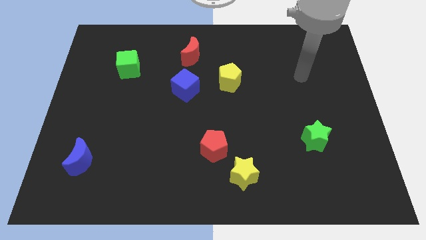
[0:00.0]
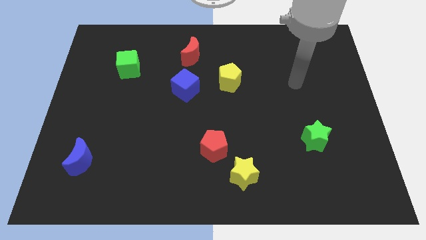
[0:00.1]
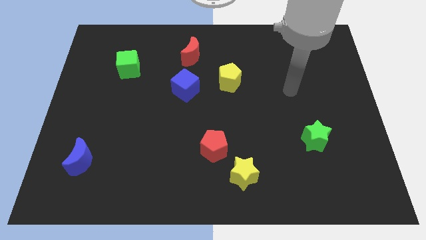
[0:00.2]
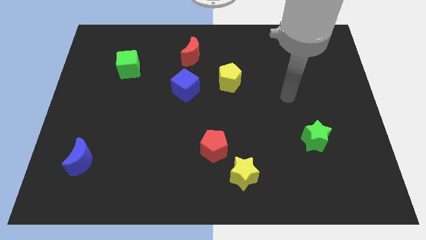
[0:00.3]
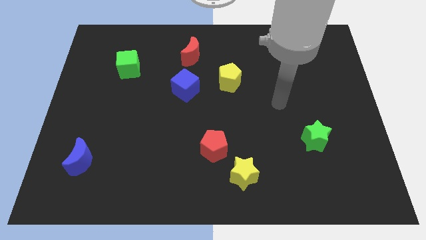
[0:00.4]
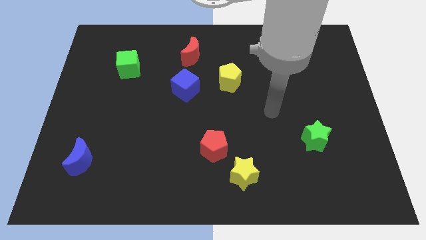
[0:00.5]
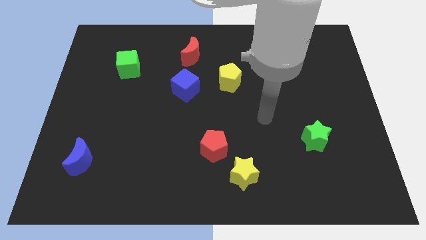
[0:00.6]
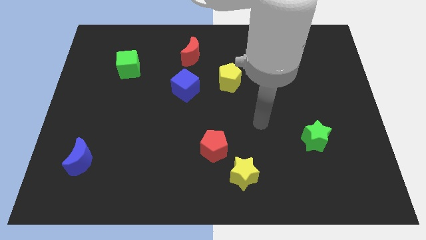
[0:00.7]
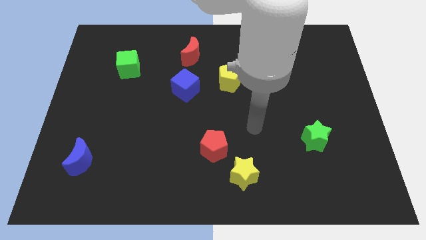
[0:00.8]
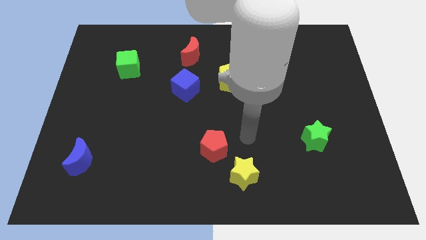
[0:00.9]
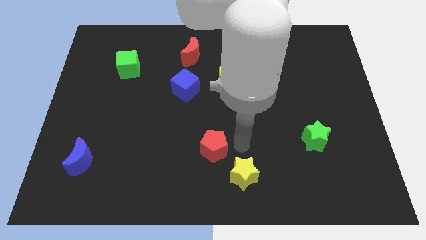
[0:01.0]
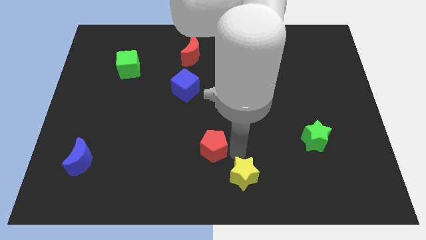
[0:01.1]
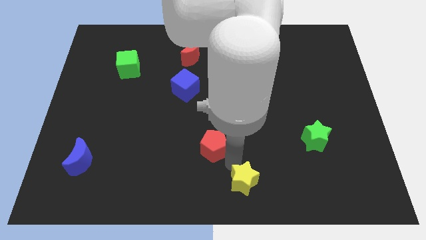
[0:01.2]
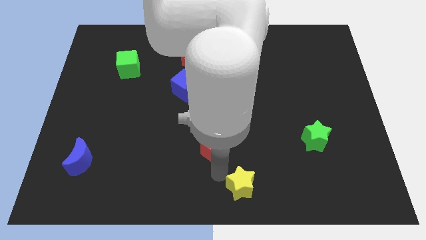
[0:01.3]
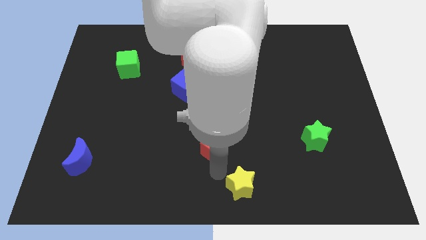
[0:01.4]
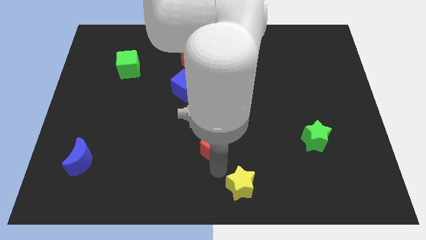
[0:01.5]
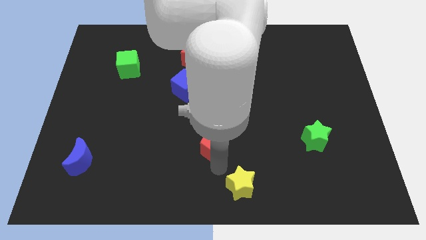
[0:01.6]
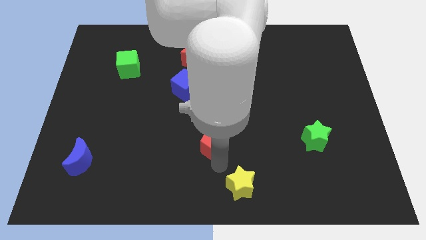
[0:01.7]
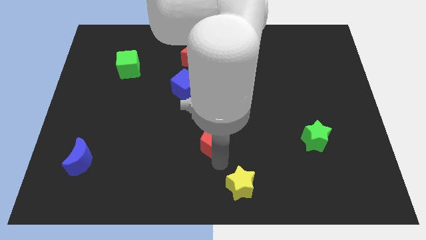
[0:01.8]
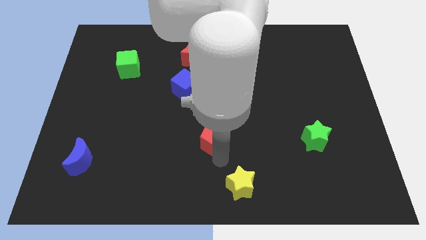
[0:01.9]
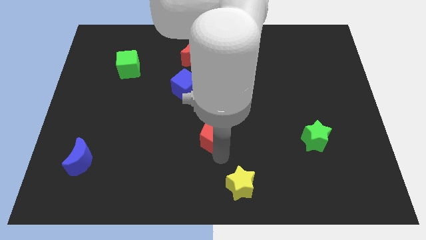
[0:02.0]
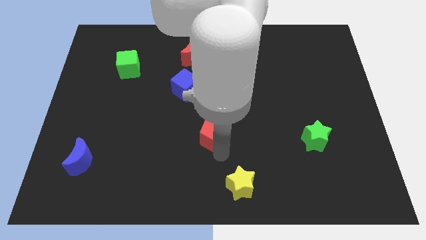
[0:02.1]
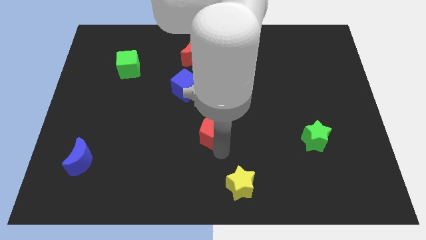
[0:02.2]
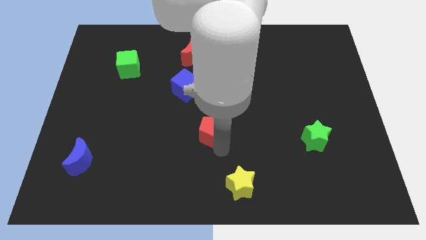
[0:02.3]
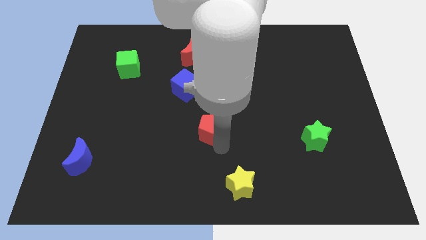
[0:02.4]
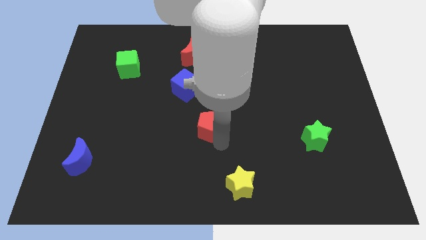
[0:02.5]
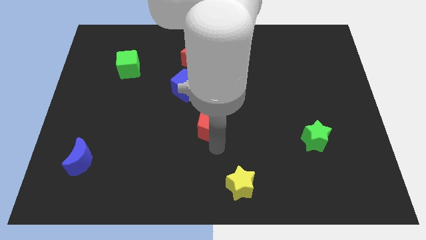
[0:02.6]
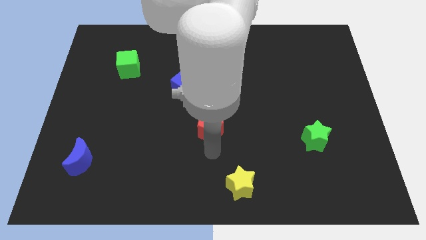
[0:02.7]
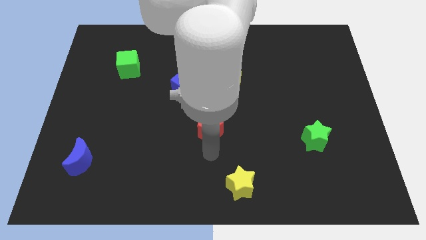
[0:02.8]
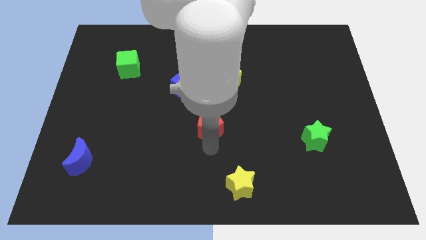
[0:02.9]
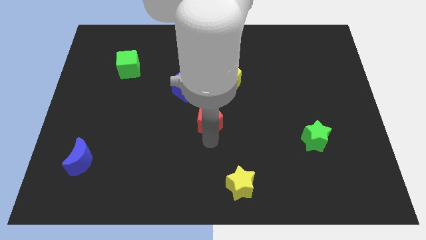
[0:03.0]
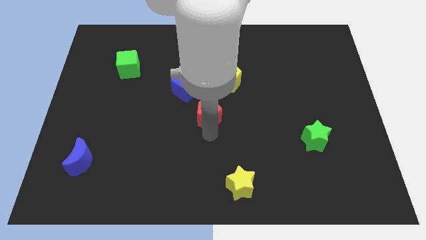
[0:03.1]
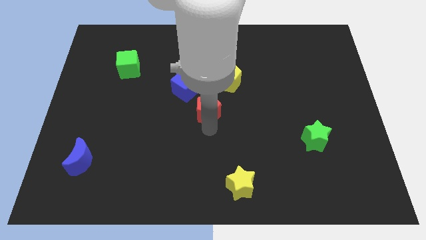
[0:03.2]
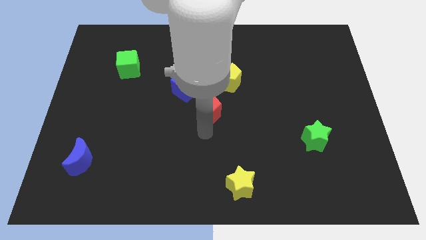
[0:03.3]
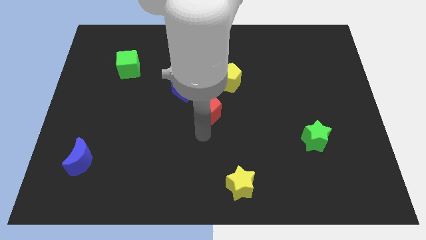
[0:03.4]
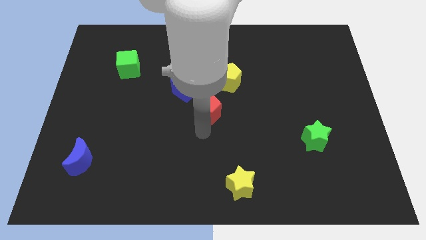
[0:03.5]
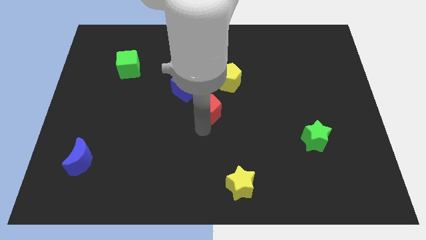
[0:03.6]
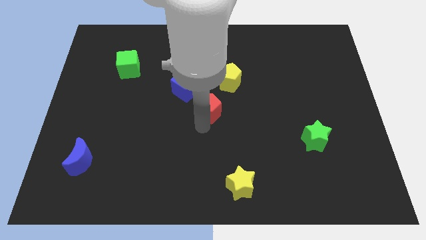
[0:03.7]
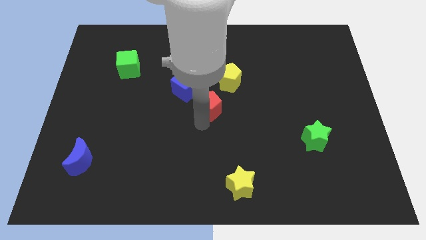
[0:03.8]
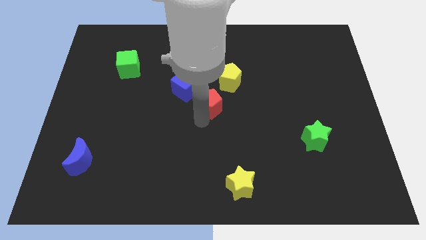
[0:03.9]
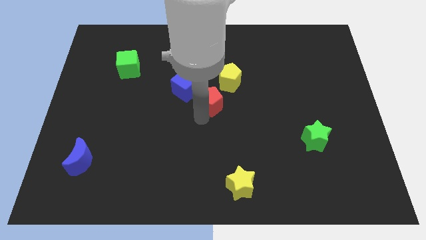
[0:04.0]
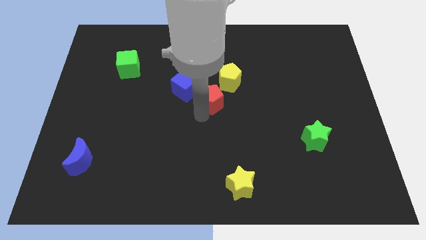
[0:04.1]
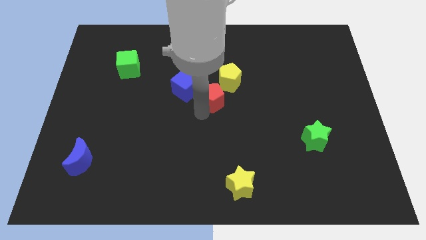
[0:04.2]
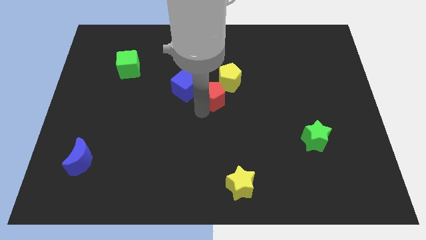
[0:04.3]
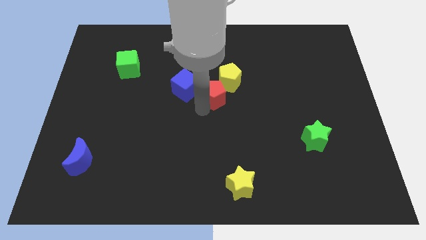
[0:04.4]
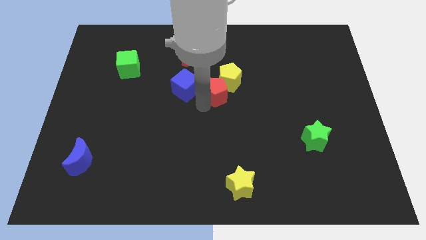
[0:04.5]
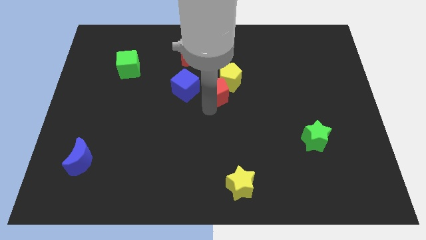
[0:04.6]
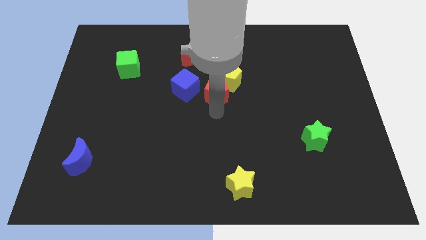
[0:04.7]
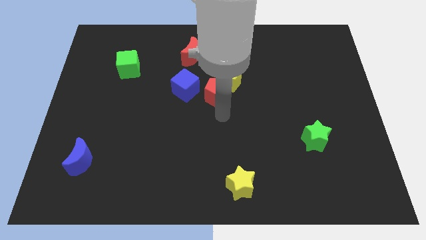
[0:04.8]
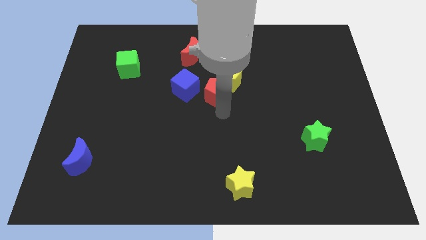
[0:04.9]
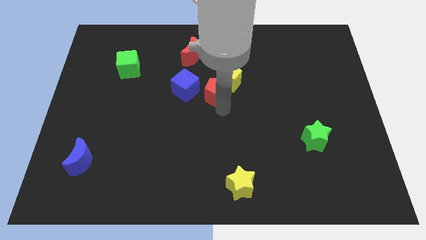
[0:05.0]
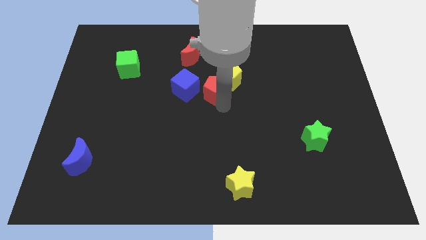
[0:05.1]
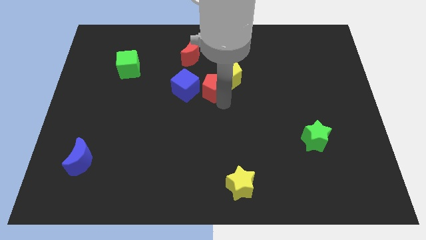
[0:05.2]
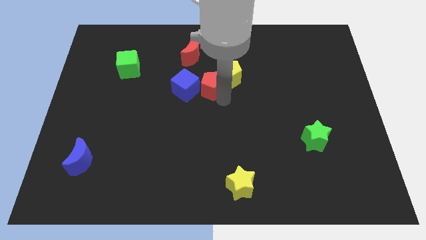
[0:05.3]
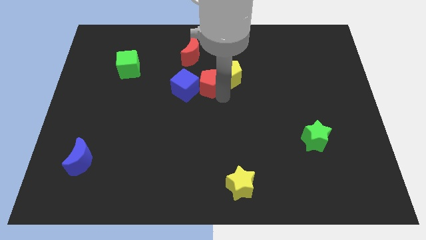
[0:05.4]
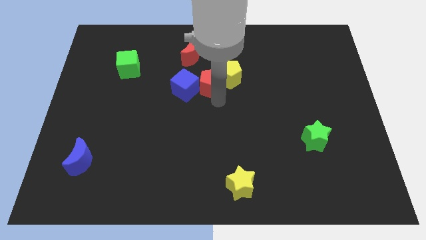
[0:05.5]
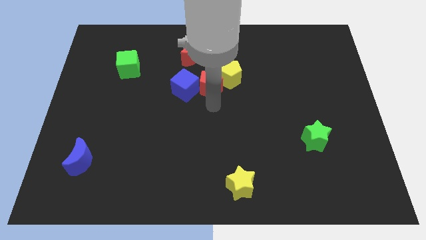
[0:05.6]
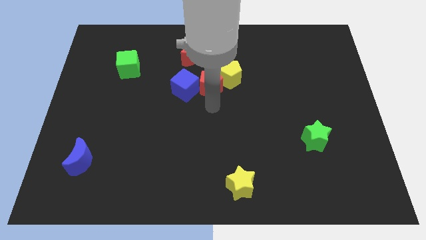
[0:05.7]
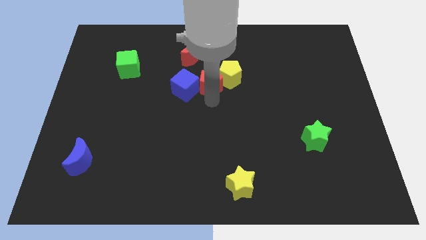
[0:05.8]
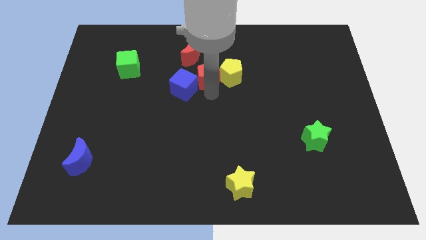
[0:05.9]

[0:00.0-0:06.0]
put the red pentagon to the top left of the yellow pentagon

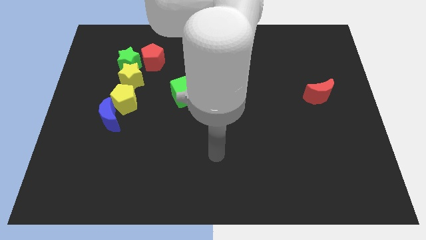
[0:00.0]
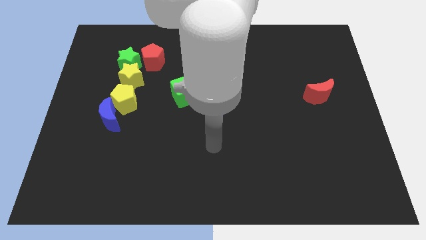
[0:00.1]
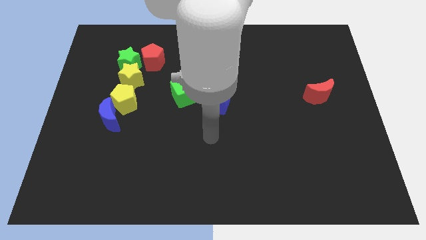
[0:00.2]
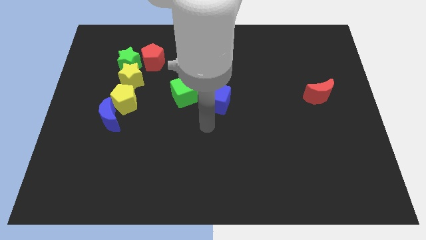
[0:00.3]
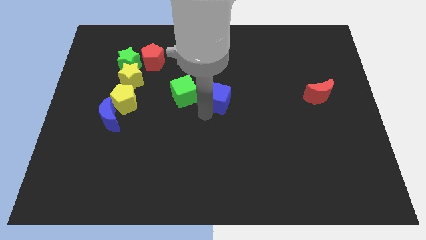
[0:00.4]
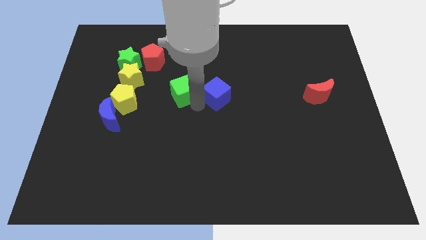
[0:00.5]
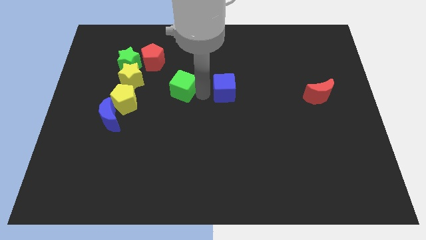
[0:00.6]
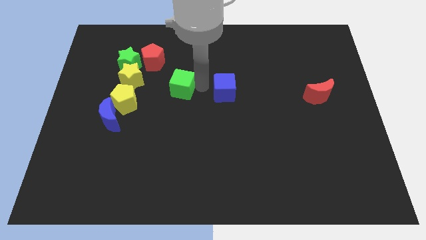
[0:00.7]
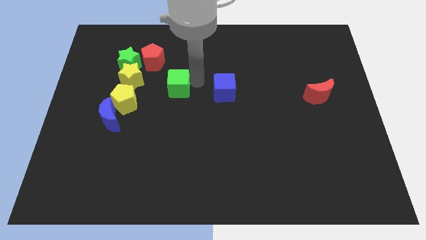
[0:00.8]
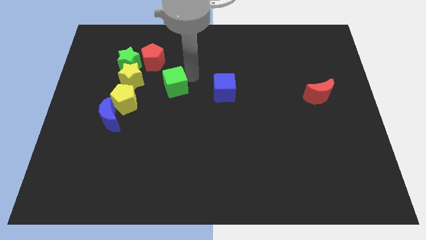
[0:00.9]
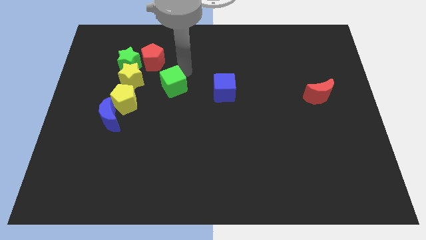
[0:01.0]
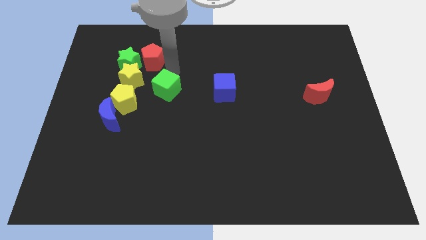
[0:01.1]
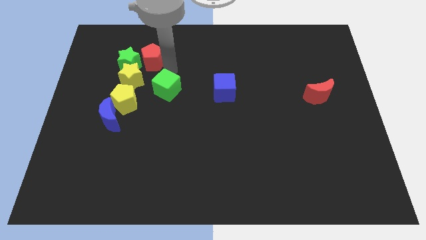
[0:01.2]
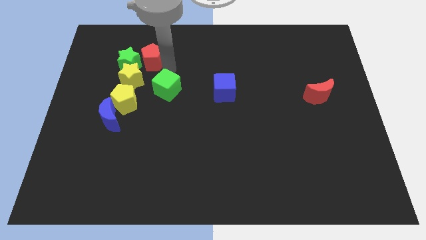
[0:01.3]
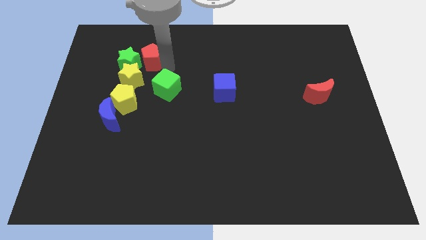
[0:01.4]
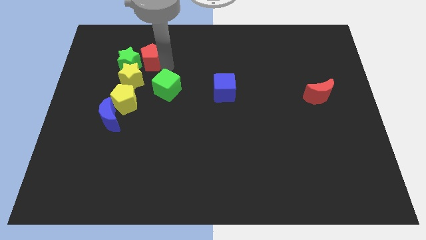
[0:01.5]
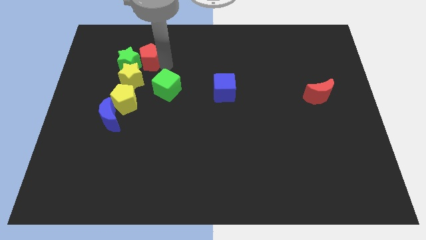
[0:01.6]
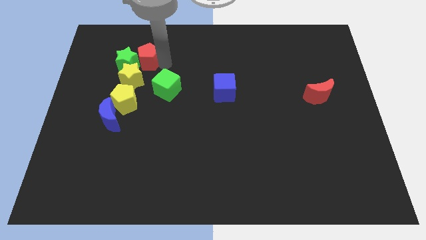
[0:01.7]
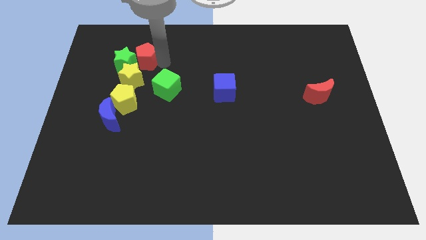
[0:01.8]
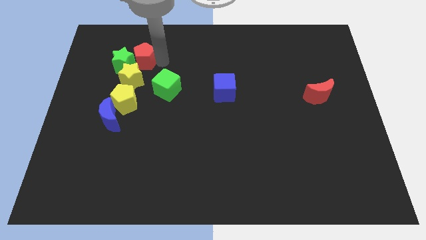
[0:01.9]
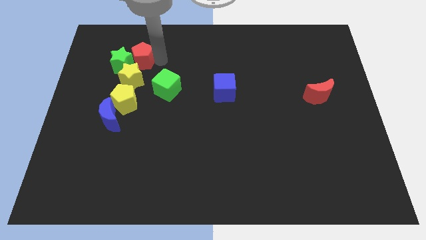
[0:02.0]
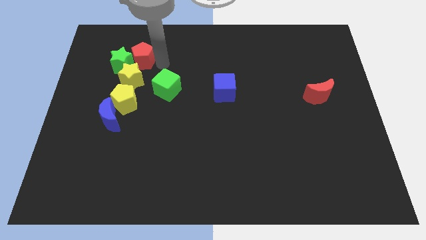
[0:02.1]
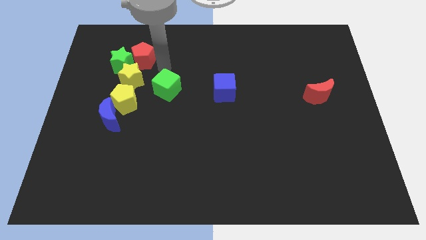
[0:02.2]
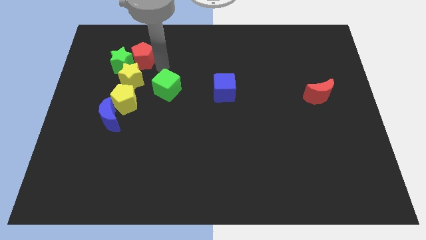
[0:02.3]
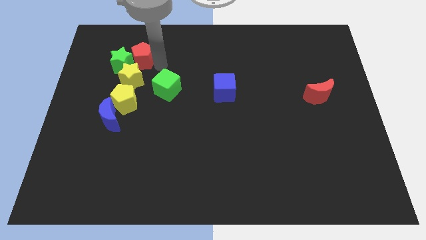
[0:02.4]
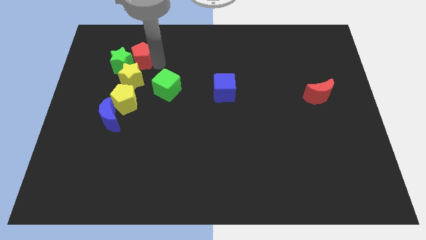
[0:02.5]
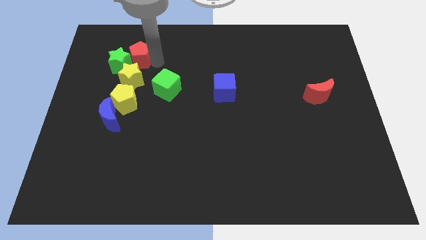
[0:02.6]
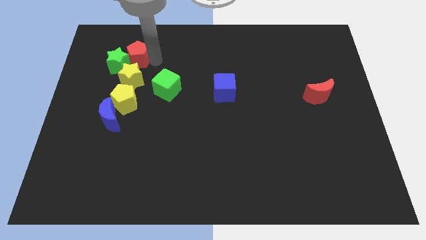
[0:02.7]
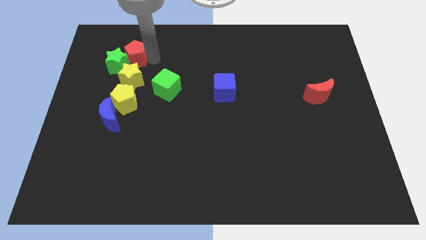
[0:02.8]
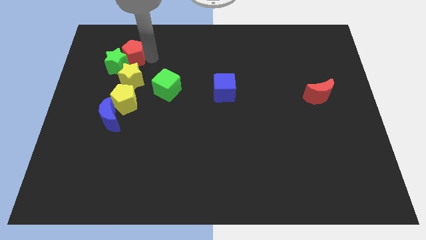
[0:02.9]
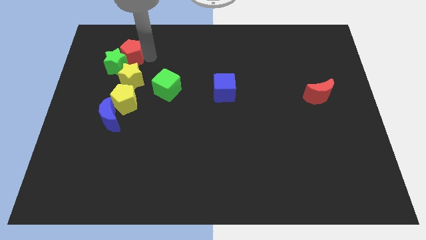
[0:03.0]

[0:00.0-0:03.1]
move the red pentagon diagonally up and to the left of the yellow star
